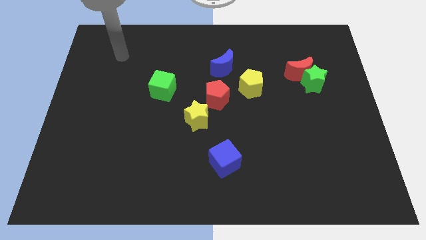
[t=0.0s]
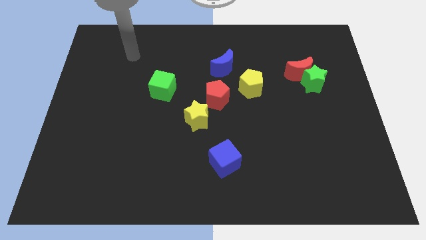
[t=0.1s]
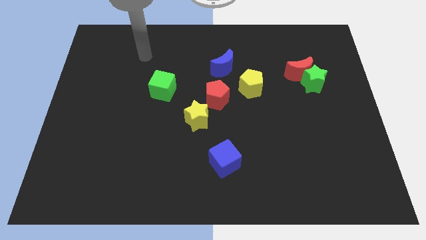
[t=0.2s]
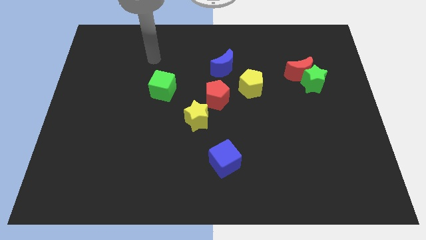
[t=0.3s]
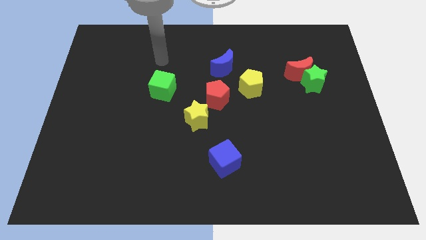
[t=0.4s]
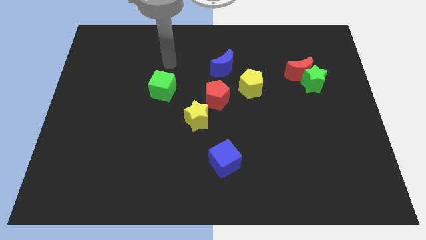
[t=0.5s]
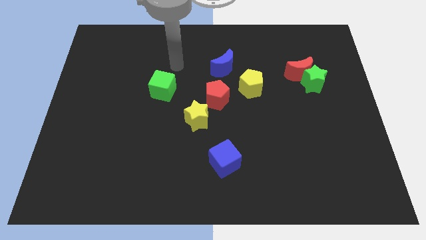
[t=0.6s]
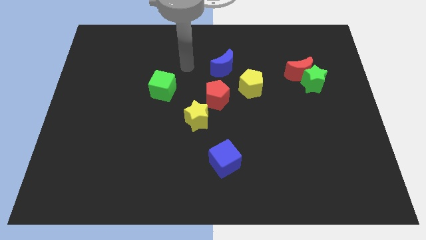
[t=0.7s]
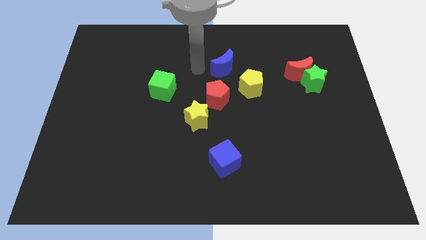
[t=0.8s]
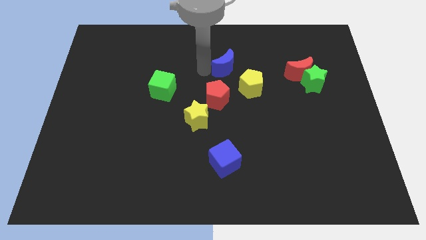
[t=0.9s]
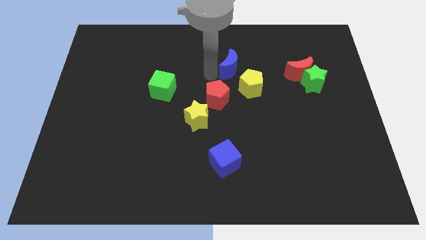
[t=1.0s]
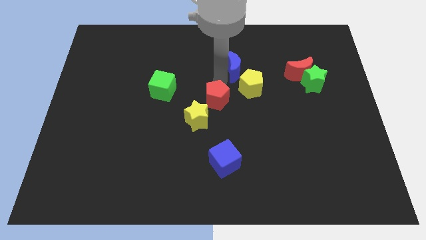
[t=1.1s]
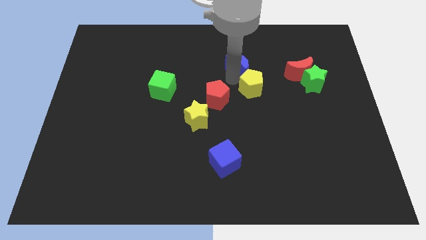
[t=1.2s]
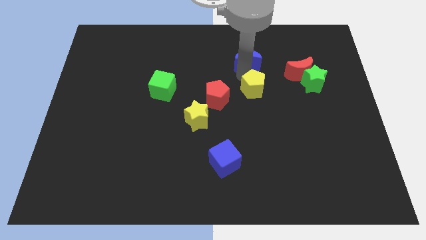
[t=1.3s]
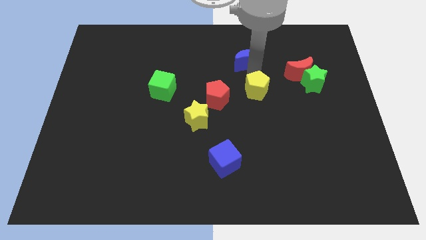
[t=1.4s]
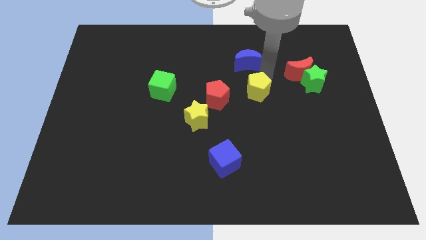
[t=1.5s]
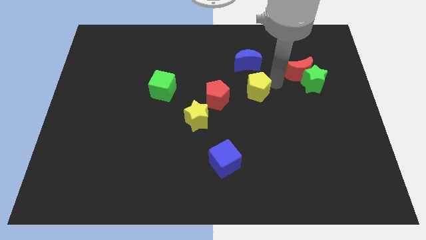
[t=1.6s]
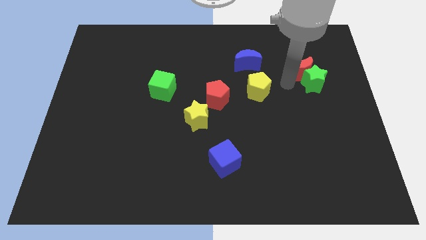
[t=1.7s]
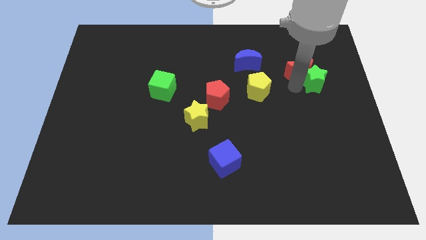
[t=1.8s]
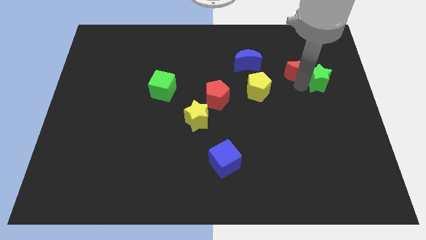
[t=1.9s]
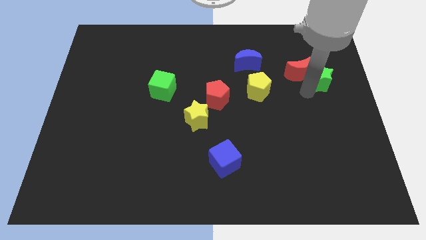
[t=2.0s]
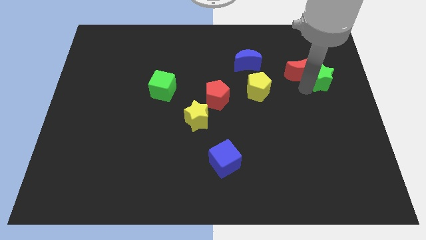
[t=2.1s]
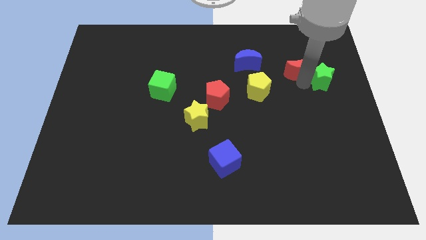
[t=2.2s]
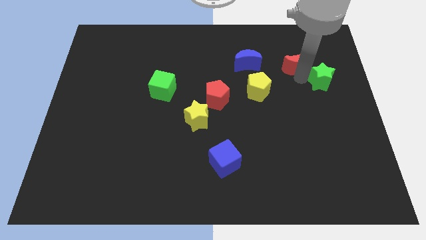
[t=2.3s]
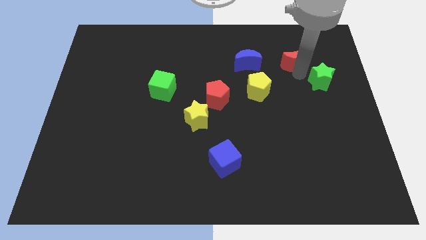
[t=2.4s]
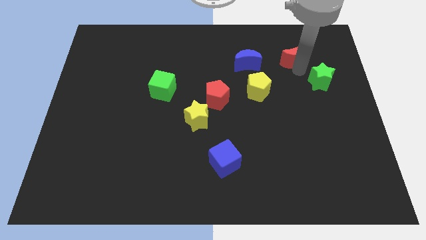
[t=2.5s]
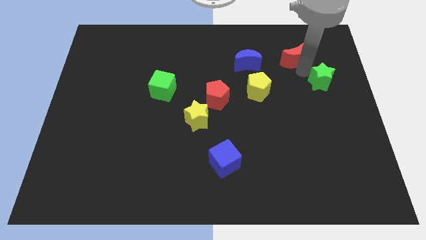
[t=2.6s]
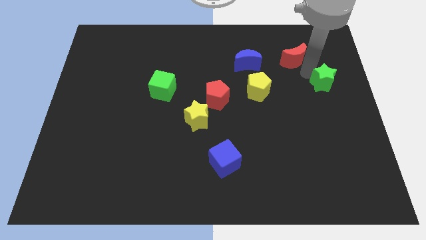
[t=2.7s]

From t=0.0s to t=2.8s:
separate the red moon from the green star

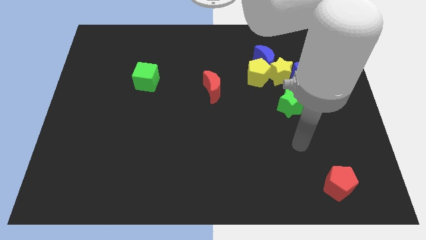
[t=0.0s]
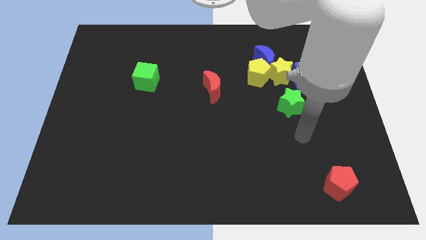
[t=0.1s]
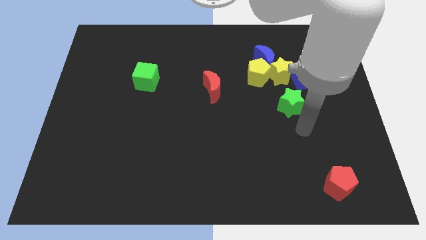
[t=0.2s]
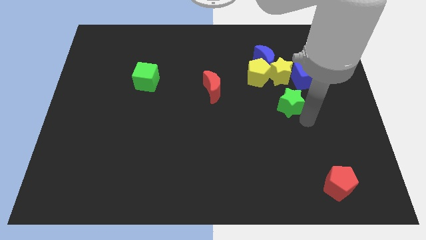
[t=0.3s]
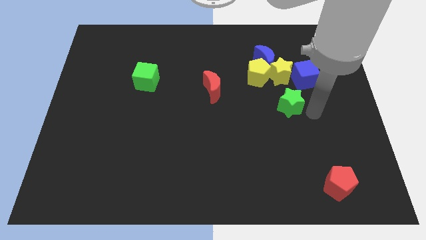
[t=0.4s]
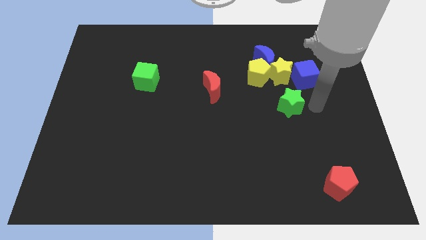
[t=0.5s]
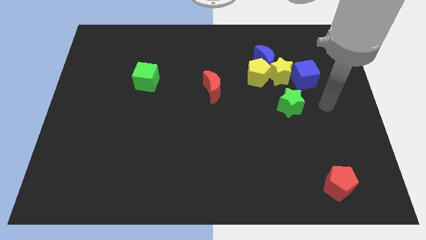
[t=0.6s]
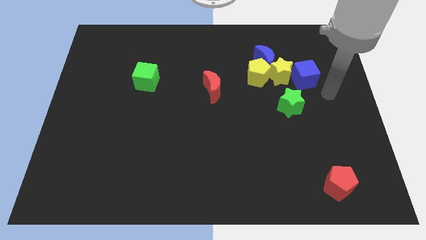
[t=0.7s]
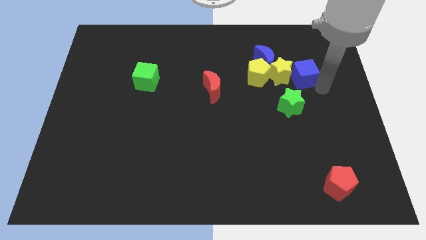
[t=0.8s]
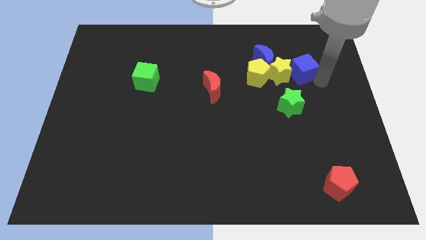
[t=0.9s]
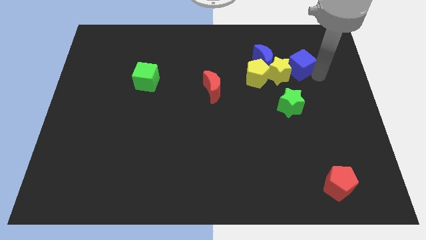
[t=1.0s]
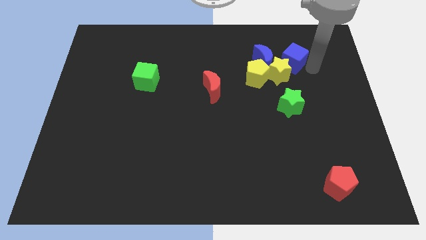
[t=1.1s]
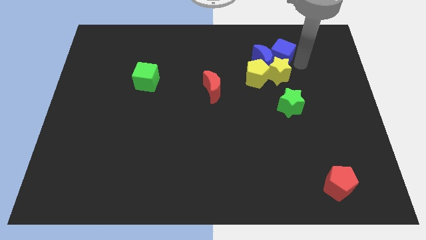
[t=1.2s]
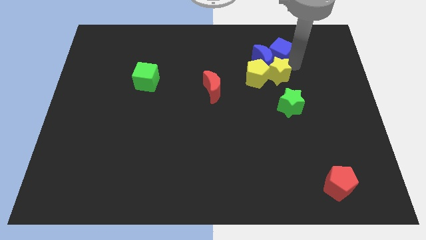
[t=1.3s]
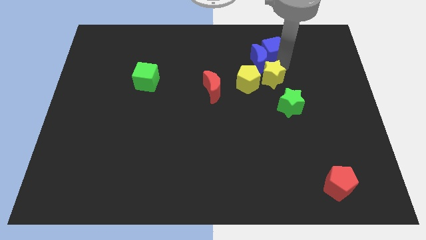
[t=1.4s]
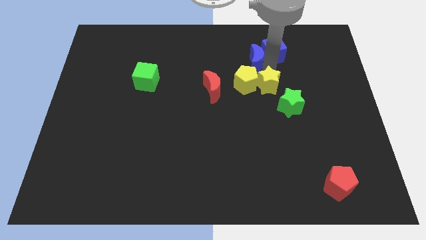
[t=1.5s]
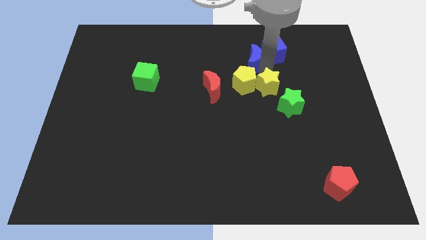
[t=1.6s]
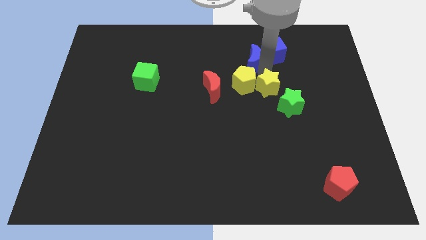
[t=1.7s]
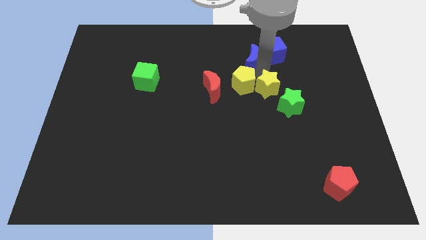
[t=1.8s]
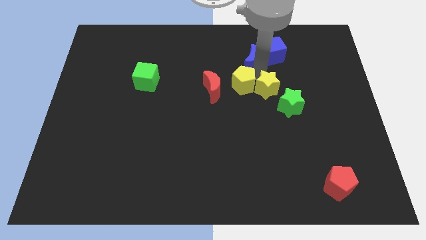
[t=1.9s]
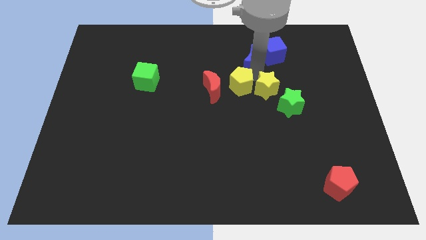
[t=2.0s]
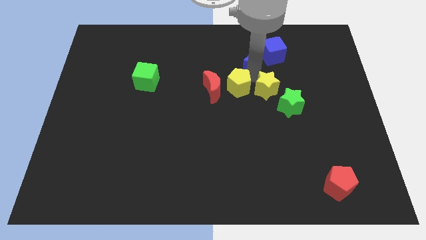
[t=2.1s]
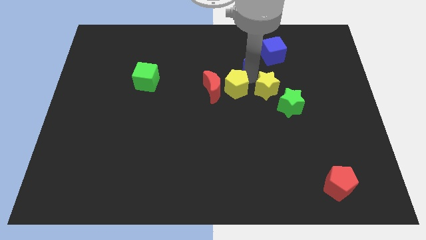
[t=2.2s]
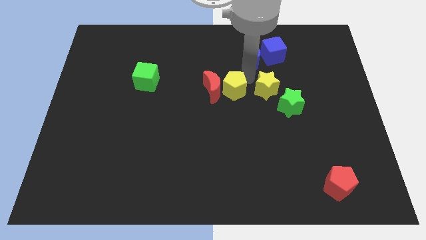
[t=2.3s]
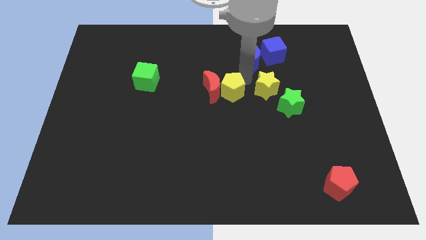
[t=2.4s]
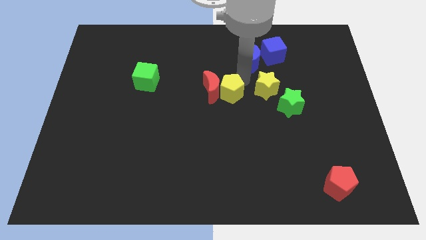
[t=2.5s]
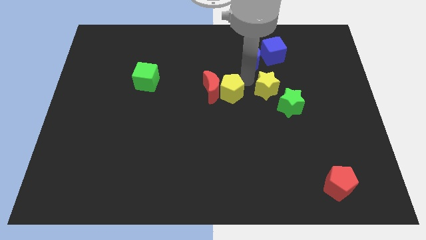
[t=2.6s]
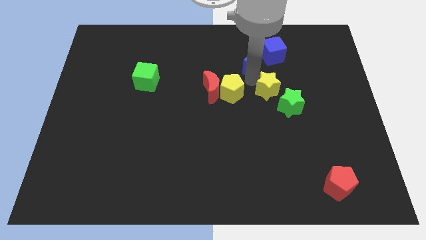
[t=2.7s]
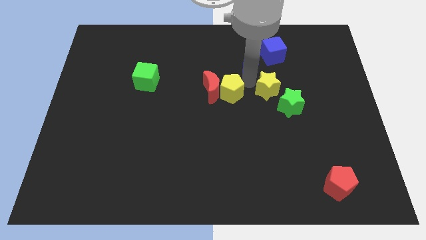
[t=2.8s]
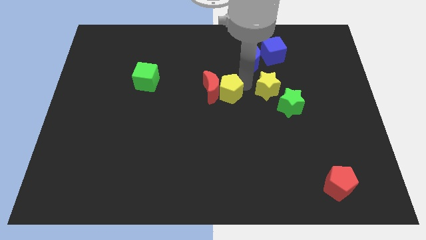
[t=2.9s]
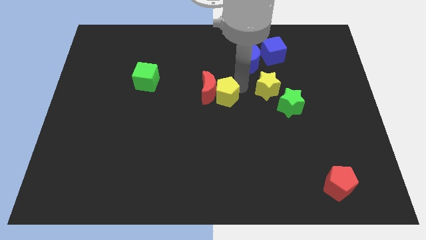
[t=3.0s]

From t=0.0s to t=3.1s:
separate the yellow pentagon from the blue moon and yellow star

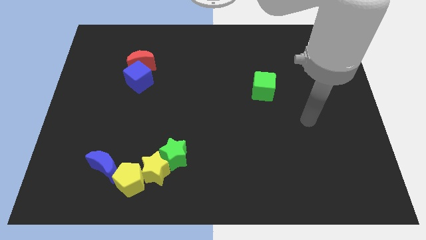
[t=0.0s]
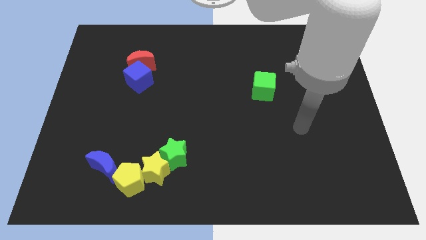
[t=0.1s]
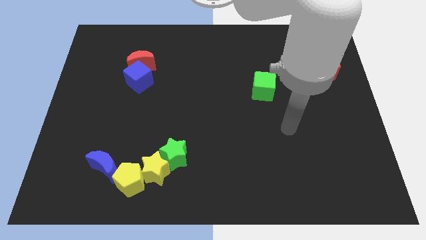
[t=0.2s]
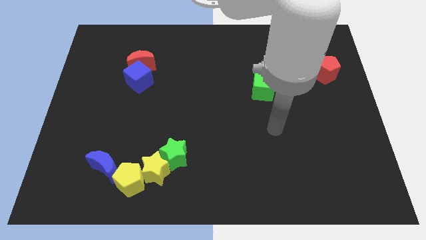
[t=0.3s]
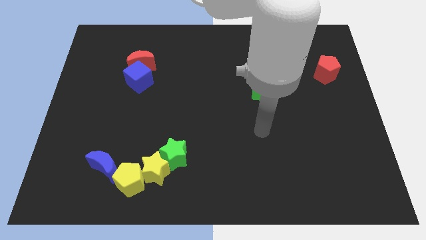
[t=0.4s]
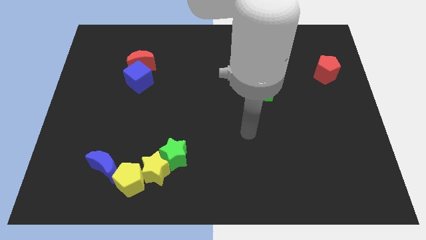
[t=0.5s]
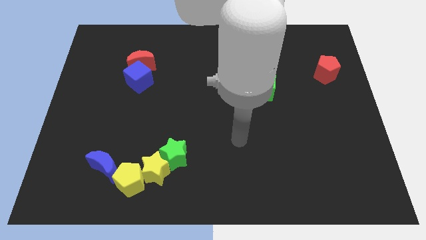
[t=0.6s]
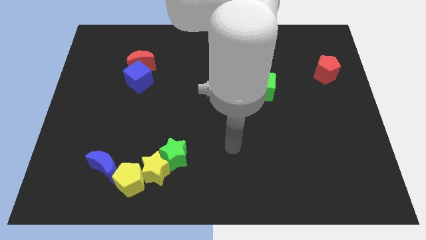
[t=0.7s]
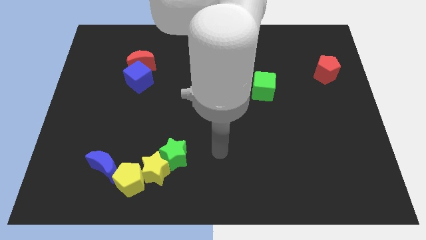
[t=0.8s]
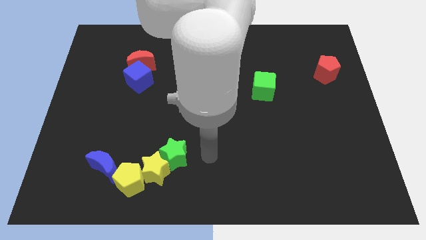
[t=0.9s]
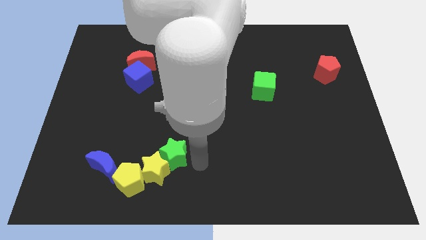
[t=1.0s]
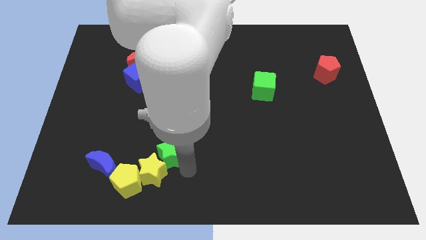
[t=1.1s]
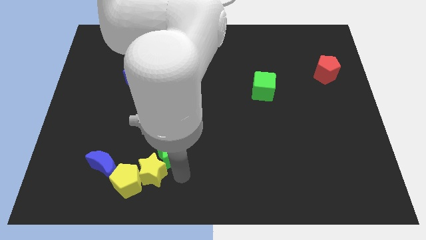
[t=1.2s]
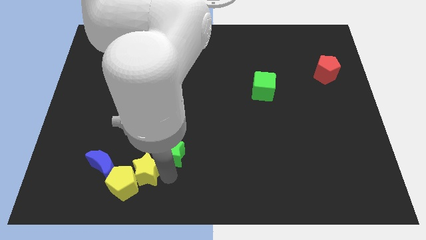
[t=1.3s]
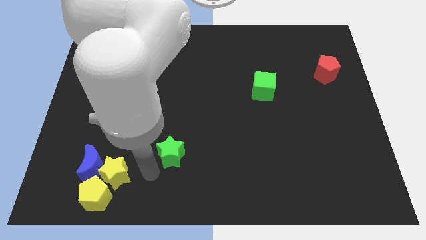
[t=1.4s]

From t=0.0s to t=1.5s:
pull the green star apart from the yellow star

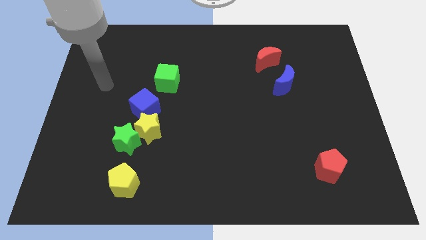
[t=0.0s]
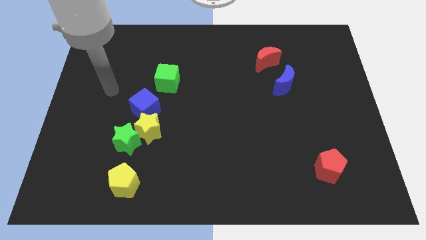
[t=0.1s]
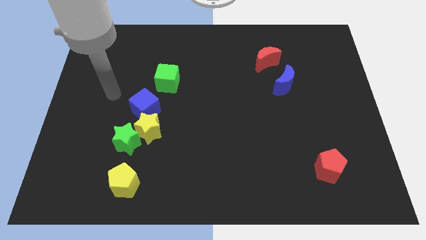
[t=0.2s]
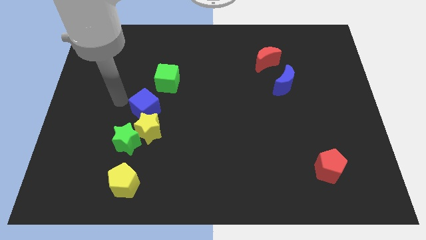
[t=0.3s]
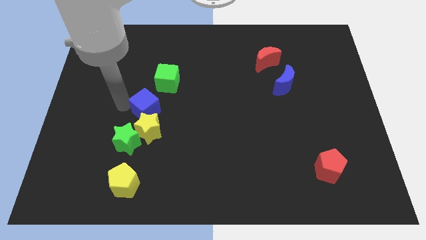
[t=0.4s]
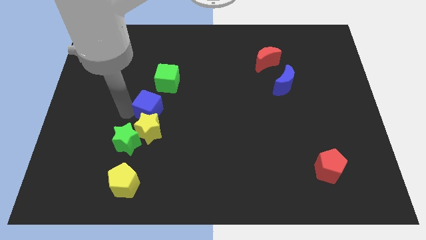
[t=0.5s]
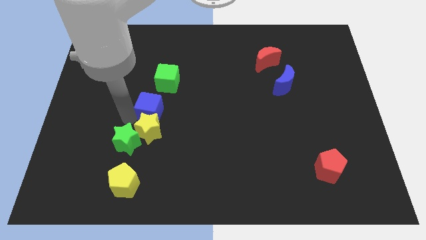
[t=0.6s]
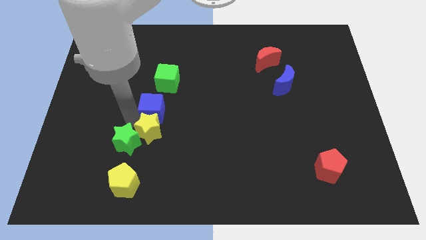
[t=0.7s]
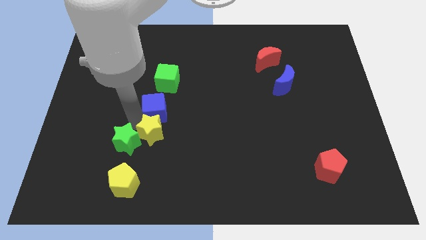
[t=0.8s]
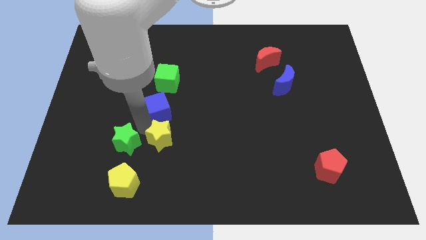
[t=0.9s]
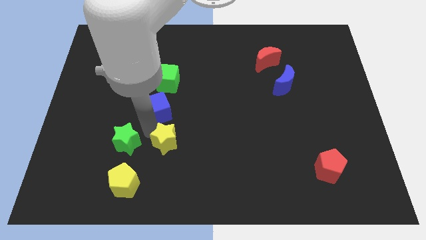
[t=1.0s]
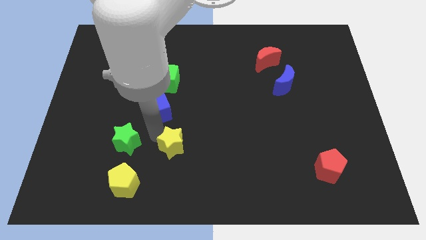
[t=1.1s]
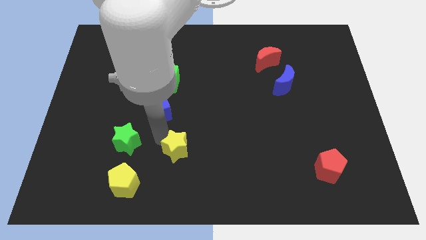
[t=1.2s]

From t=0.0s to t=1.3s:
separate the yellow star from the green star and blue cube

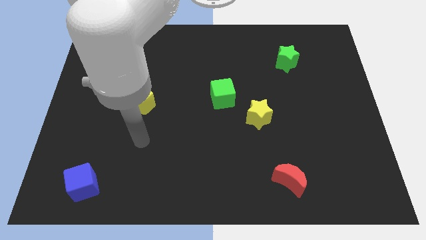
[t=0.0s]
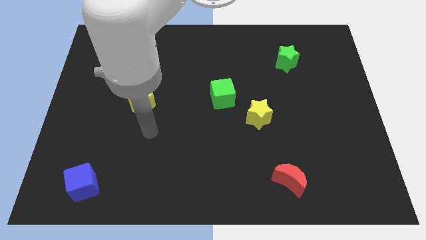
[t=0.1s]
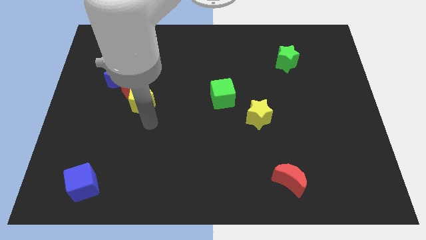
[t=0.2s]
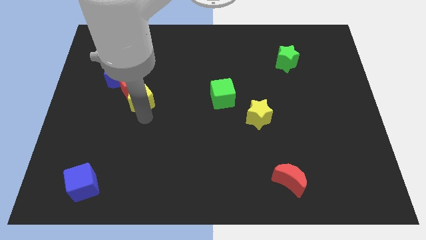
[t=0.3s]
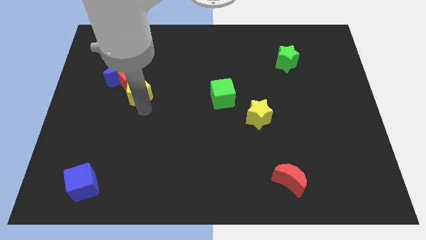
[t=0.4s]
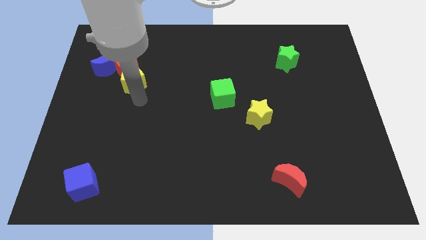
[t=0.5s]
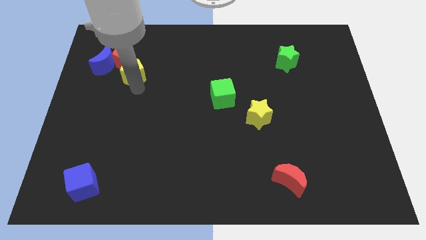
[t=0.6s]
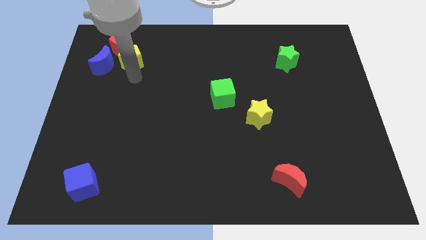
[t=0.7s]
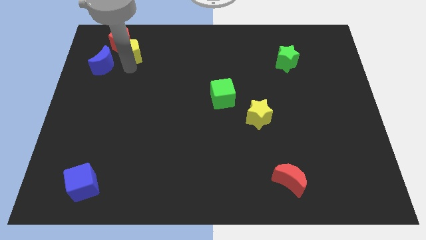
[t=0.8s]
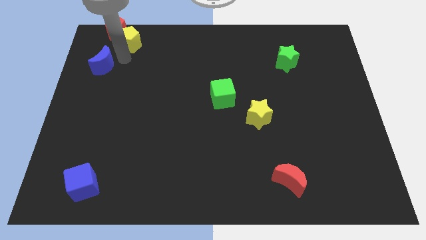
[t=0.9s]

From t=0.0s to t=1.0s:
separate the blue moon from the red pentagon
